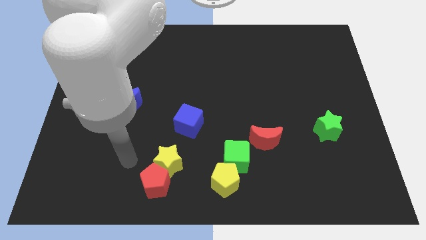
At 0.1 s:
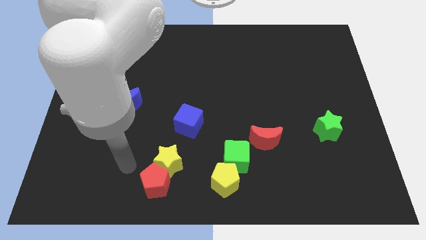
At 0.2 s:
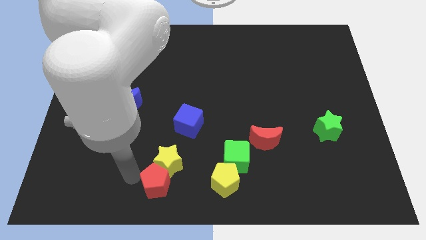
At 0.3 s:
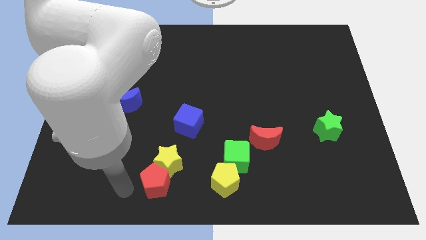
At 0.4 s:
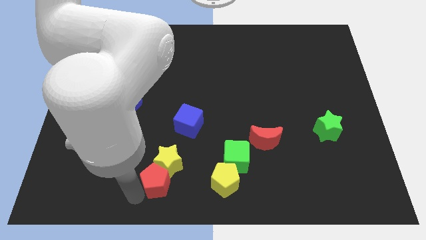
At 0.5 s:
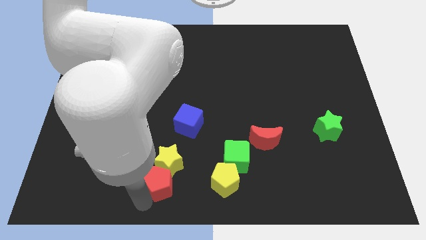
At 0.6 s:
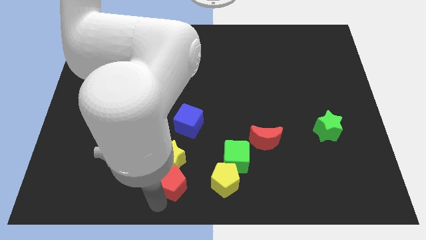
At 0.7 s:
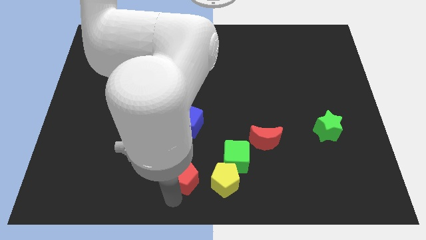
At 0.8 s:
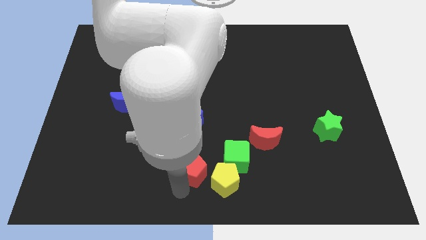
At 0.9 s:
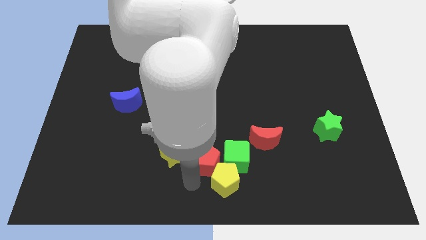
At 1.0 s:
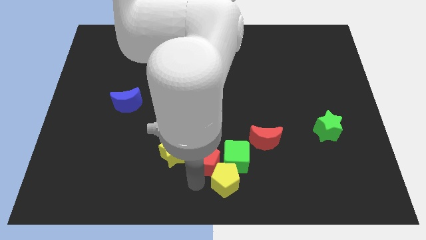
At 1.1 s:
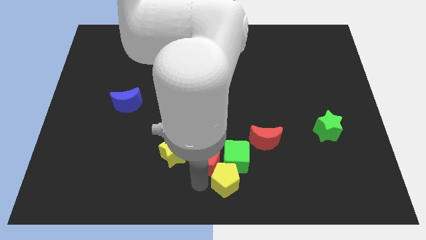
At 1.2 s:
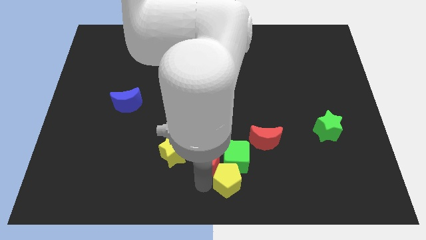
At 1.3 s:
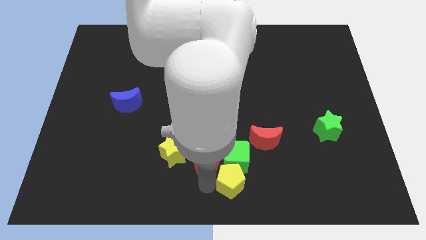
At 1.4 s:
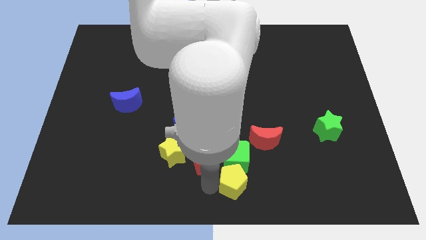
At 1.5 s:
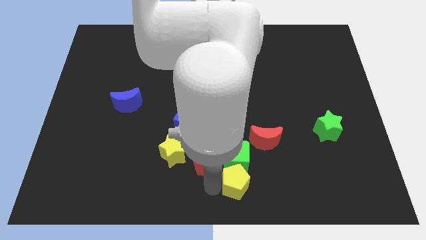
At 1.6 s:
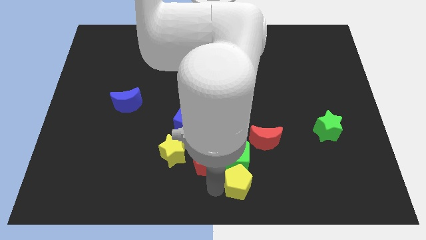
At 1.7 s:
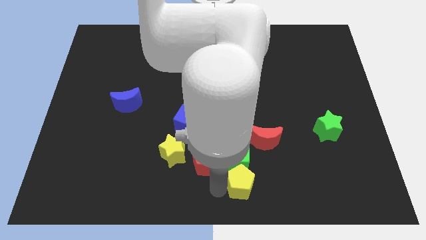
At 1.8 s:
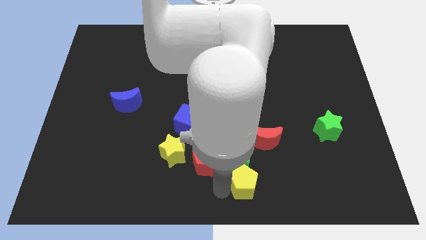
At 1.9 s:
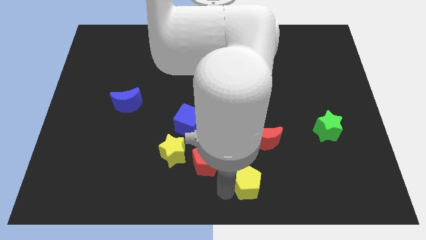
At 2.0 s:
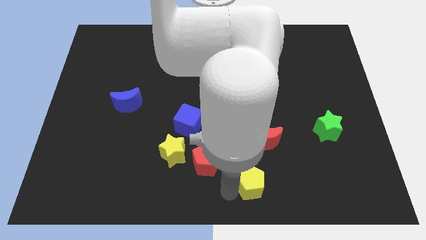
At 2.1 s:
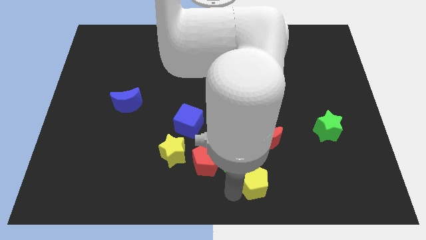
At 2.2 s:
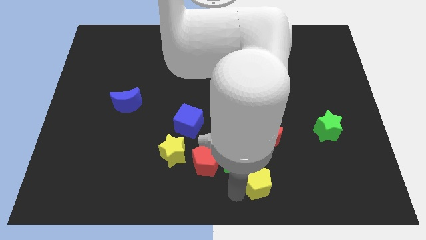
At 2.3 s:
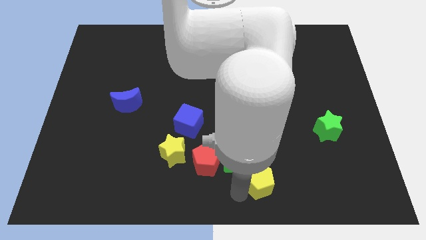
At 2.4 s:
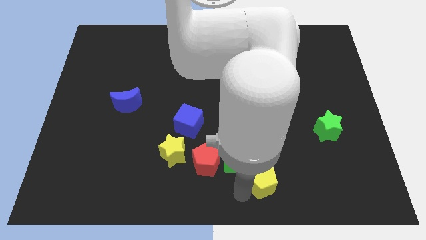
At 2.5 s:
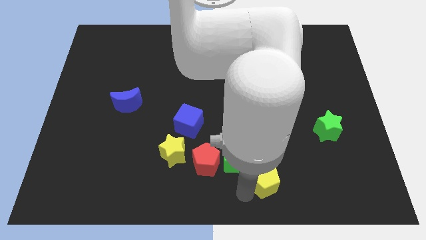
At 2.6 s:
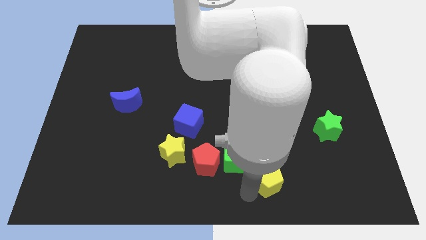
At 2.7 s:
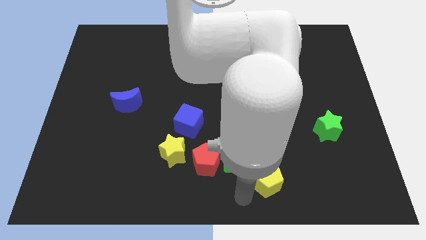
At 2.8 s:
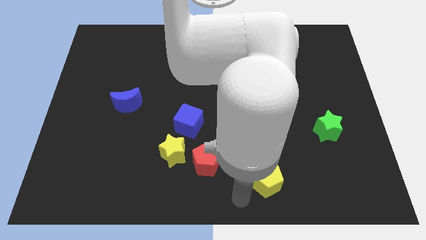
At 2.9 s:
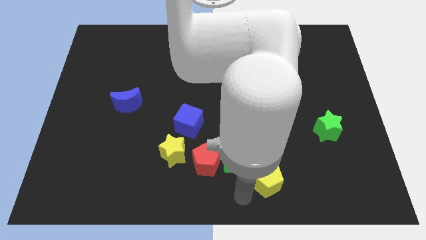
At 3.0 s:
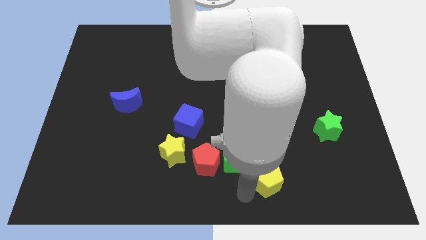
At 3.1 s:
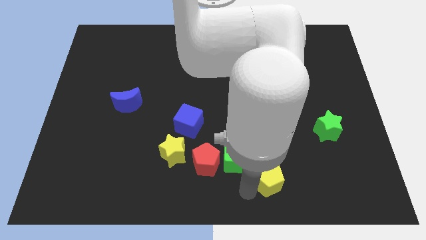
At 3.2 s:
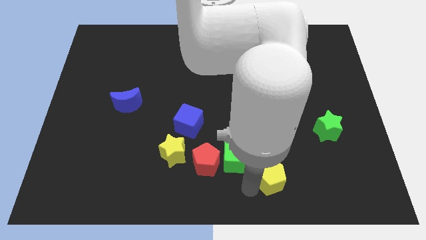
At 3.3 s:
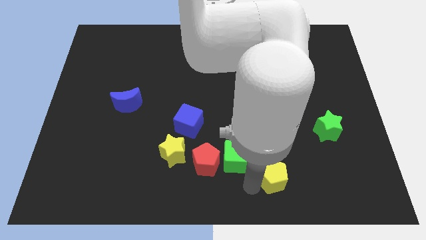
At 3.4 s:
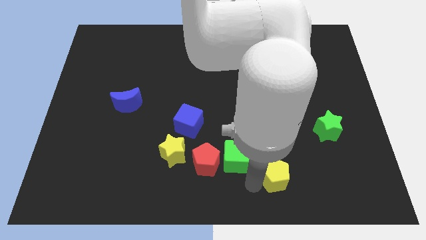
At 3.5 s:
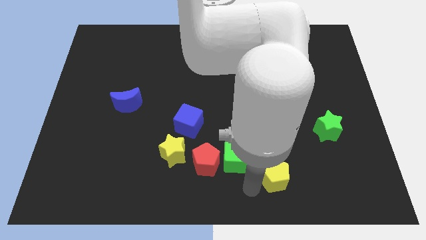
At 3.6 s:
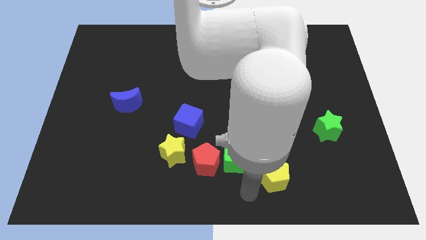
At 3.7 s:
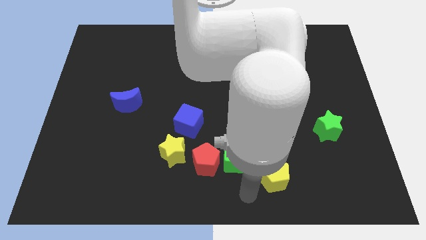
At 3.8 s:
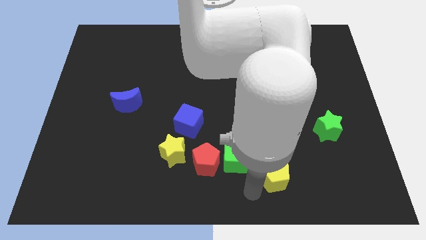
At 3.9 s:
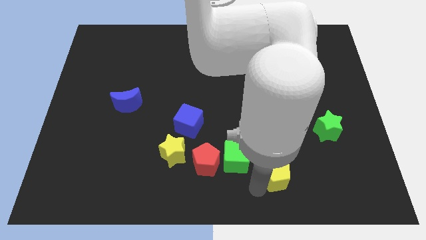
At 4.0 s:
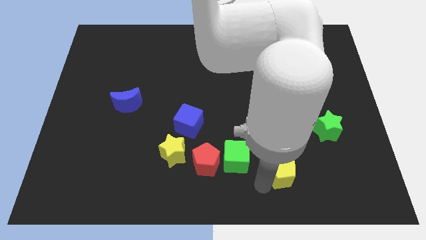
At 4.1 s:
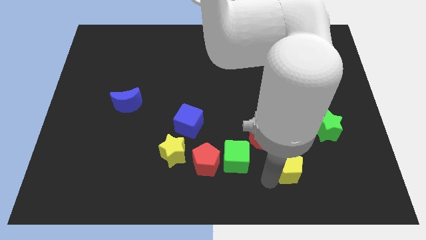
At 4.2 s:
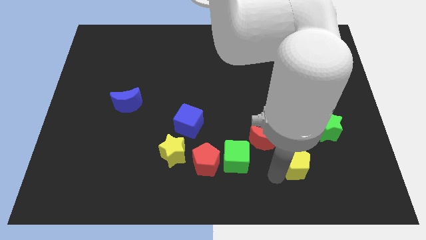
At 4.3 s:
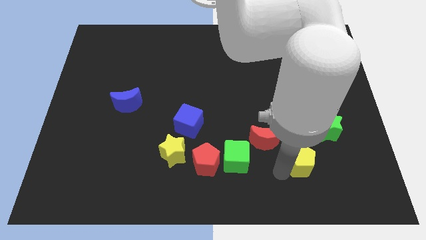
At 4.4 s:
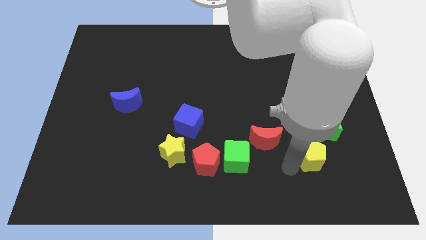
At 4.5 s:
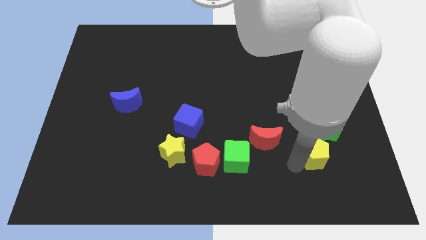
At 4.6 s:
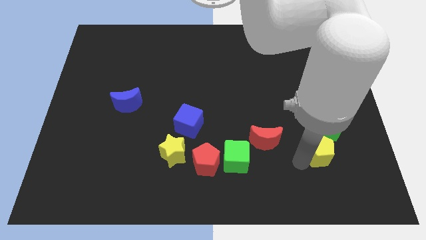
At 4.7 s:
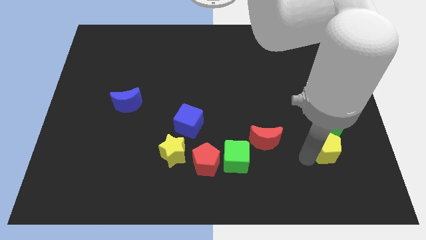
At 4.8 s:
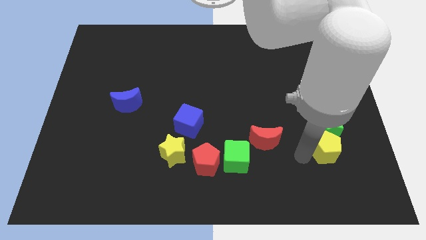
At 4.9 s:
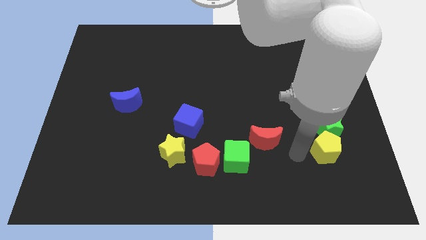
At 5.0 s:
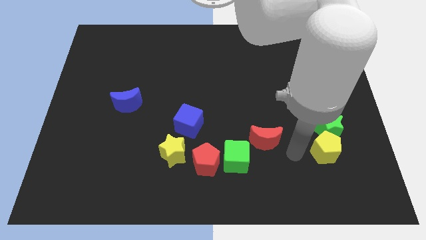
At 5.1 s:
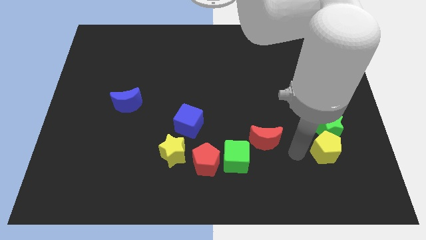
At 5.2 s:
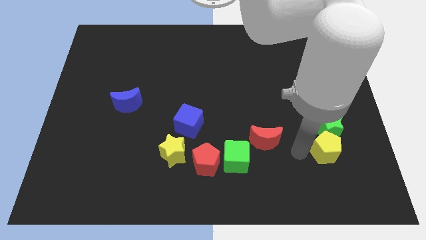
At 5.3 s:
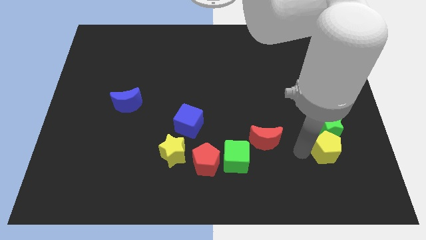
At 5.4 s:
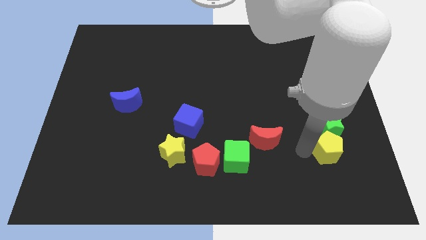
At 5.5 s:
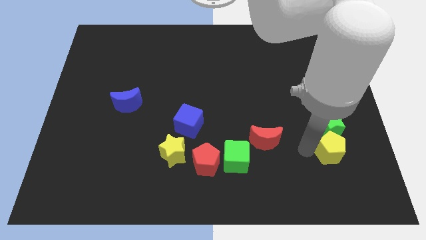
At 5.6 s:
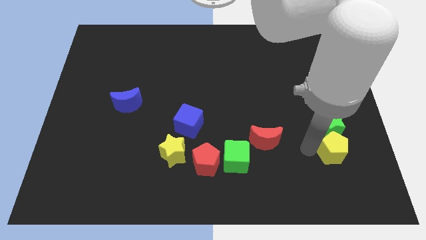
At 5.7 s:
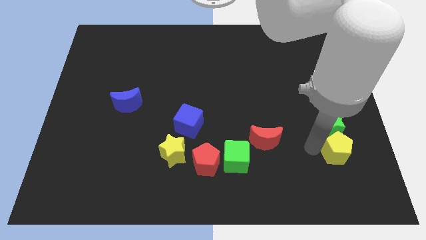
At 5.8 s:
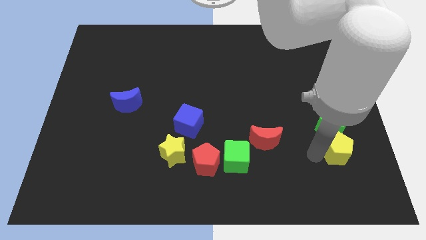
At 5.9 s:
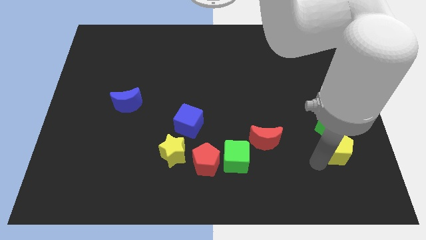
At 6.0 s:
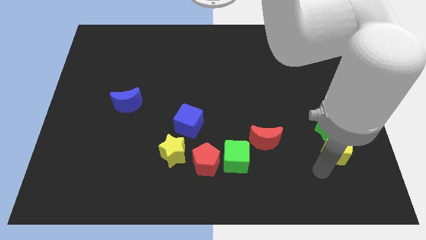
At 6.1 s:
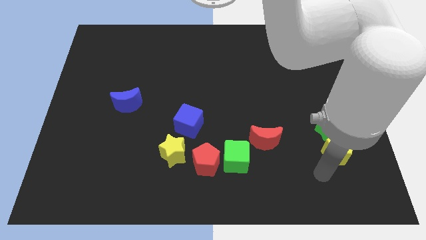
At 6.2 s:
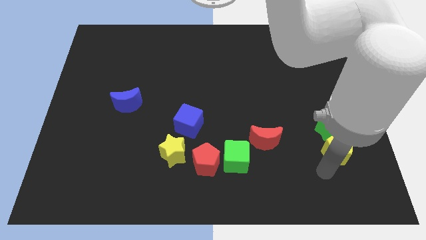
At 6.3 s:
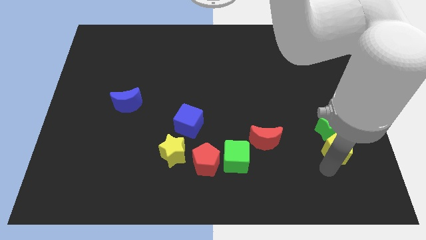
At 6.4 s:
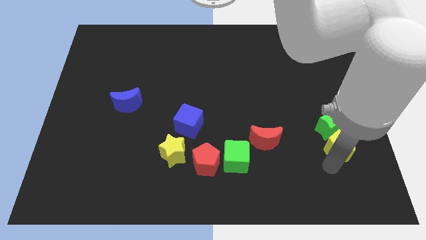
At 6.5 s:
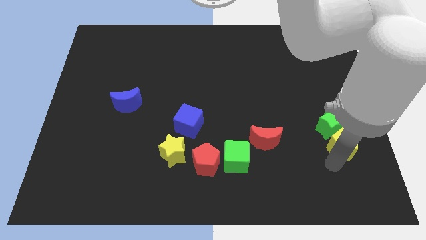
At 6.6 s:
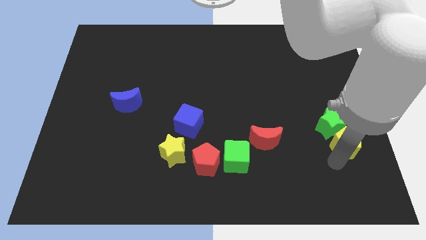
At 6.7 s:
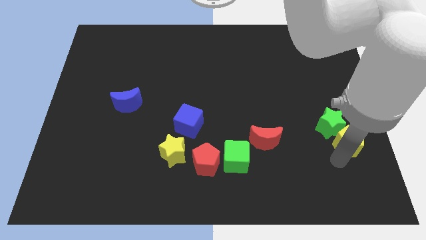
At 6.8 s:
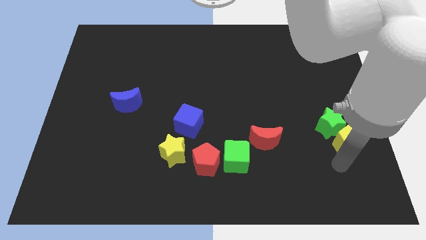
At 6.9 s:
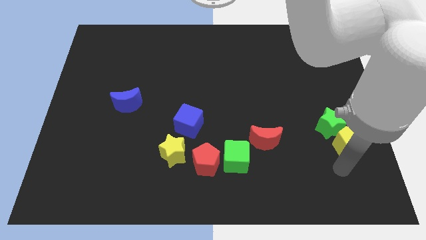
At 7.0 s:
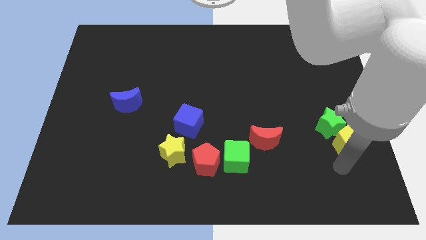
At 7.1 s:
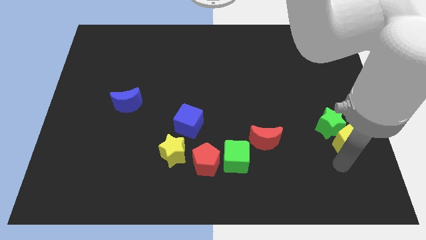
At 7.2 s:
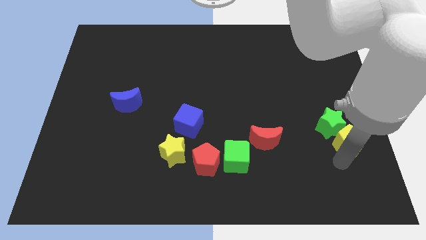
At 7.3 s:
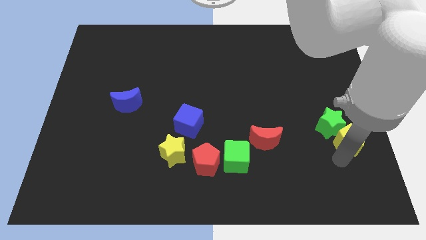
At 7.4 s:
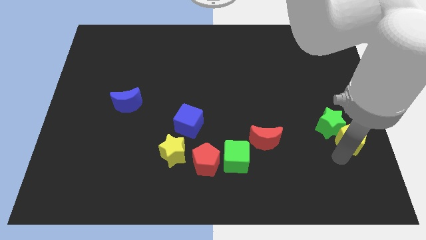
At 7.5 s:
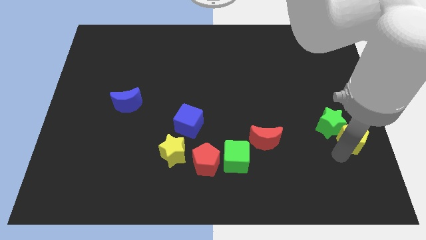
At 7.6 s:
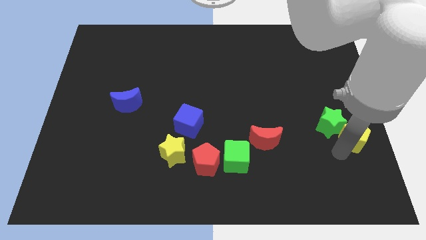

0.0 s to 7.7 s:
push the yellow pentagon to the center right
